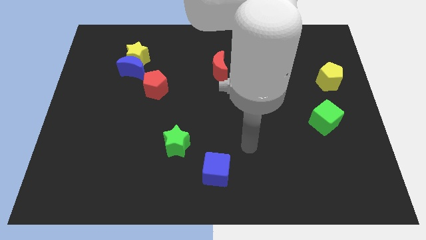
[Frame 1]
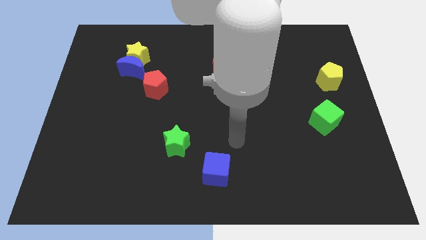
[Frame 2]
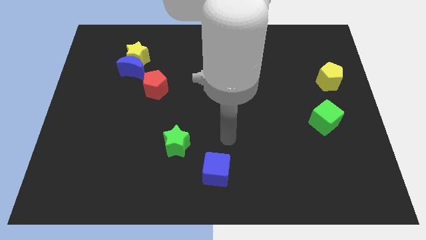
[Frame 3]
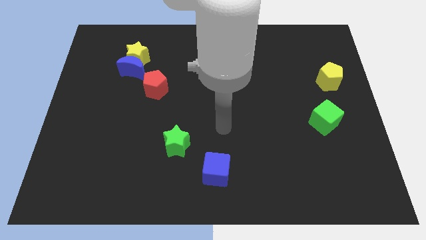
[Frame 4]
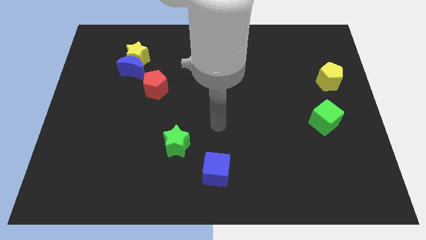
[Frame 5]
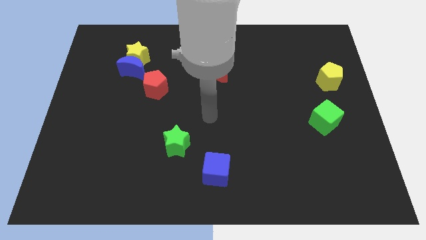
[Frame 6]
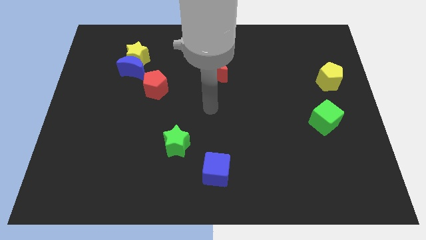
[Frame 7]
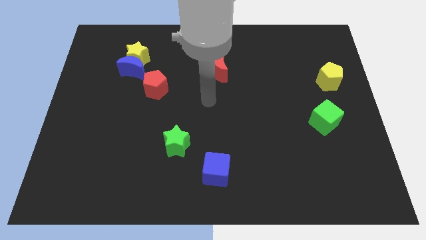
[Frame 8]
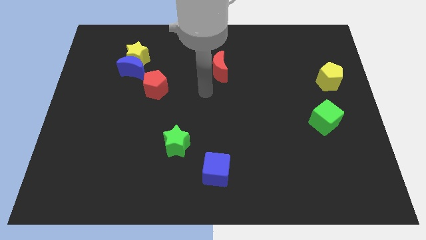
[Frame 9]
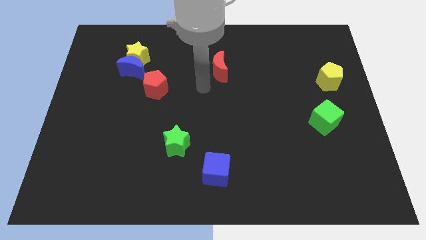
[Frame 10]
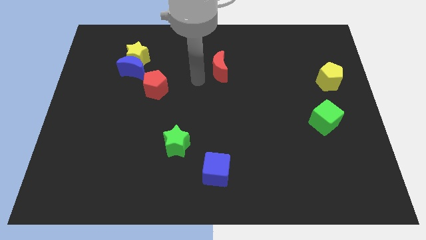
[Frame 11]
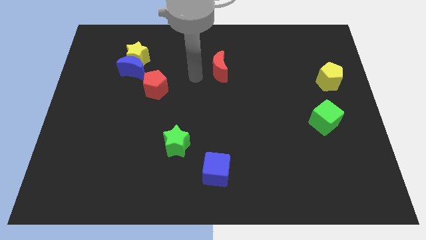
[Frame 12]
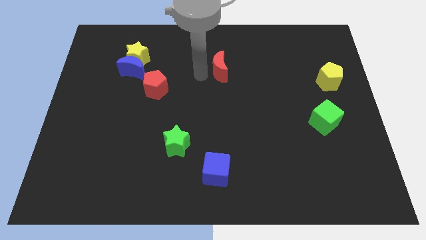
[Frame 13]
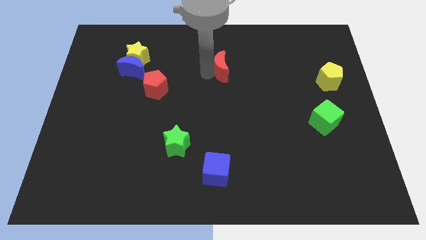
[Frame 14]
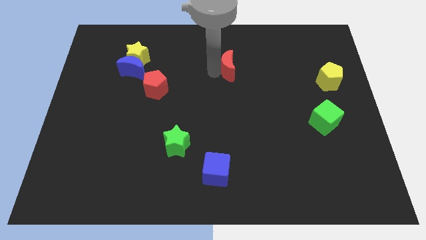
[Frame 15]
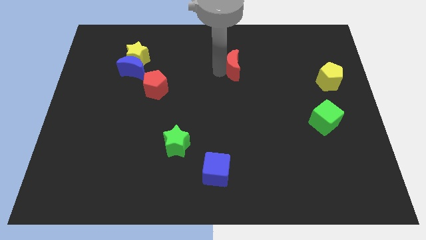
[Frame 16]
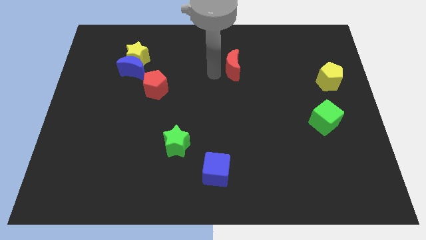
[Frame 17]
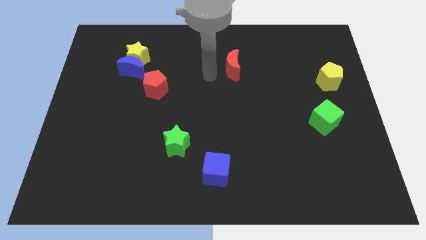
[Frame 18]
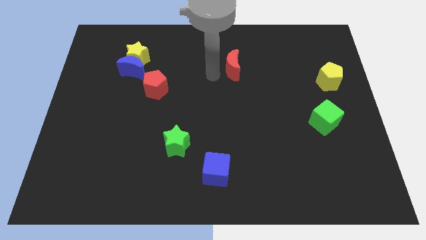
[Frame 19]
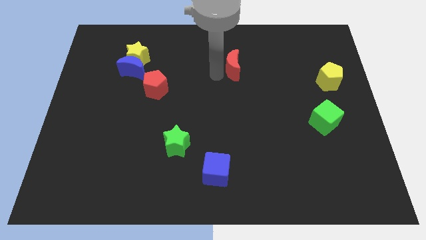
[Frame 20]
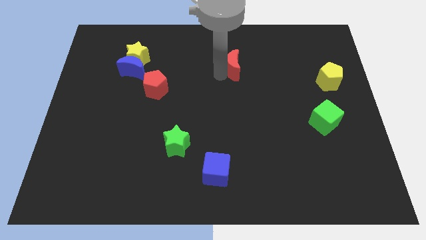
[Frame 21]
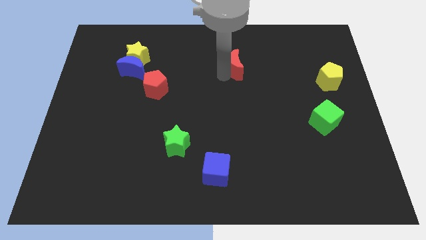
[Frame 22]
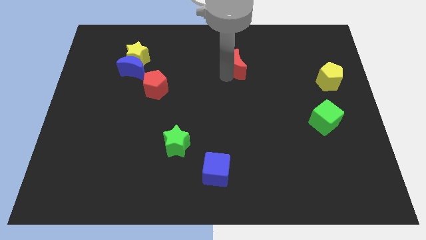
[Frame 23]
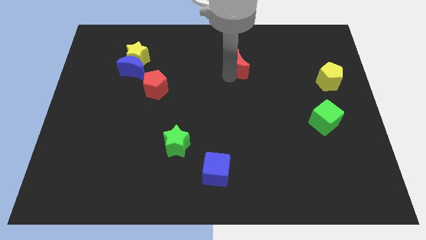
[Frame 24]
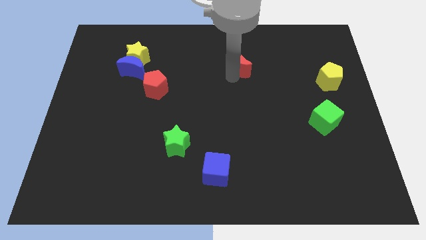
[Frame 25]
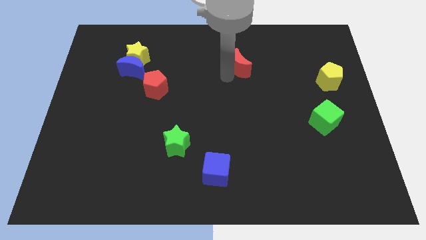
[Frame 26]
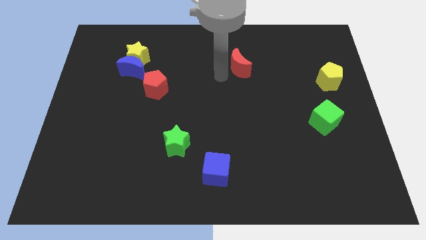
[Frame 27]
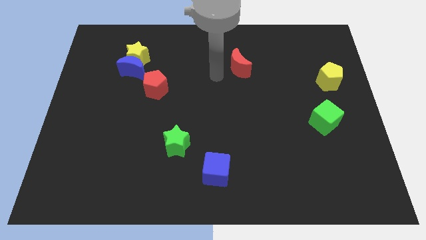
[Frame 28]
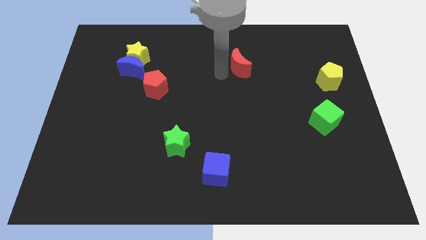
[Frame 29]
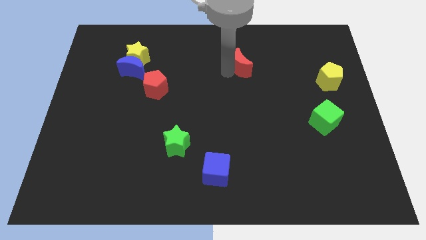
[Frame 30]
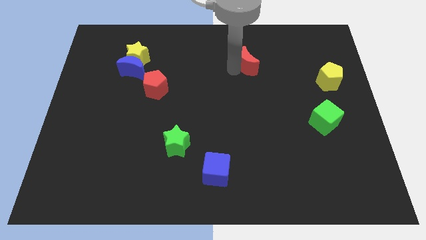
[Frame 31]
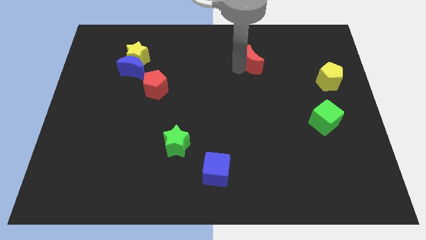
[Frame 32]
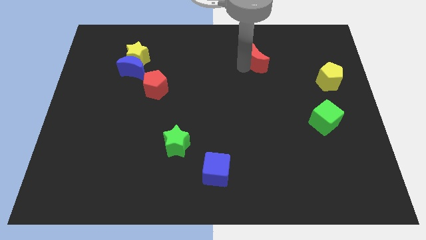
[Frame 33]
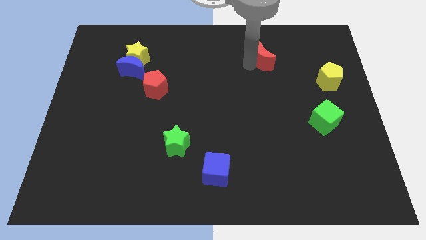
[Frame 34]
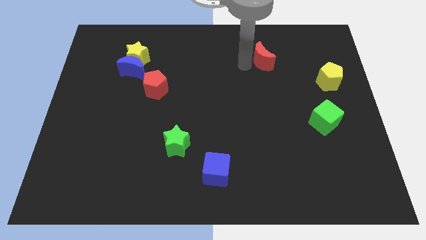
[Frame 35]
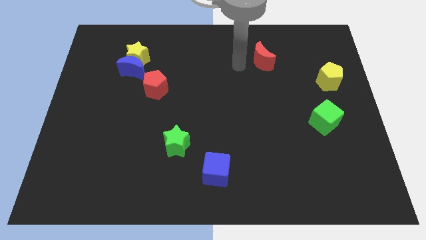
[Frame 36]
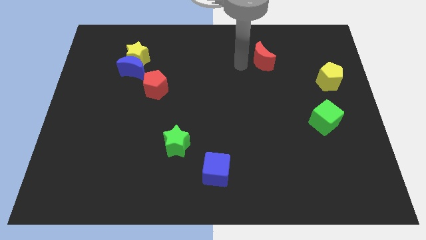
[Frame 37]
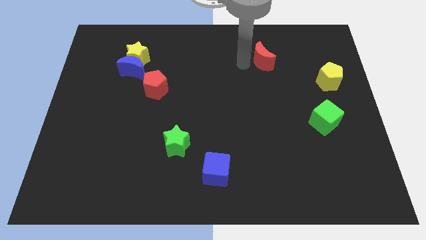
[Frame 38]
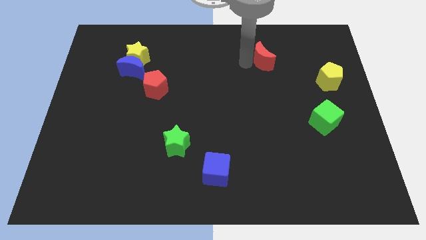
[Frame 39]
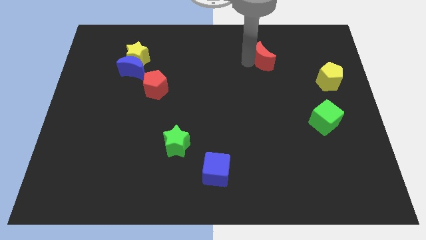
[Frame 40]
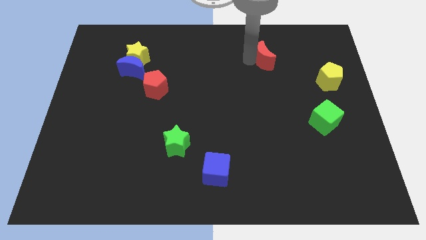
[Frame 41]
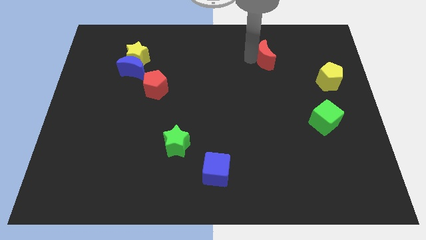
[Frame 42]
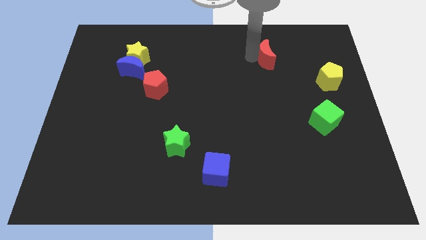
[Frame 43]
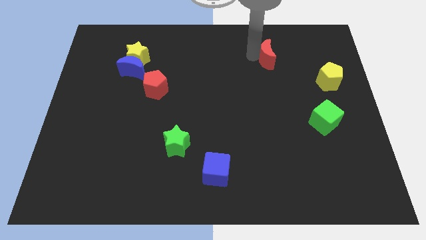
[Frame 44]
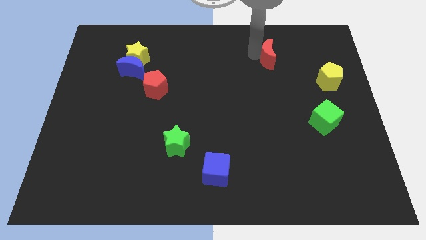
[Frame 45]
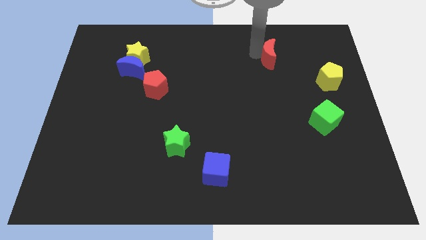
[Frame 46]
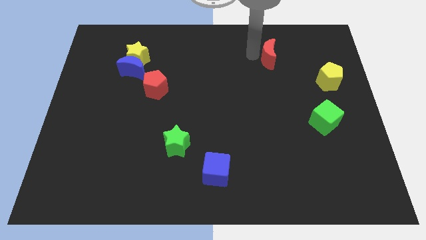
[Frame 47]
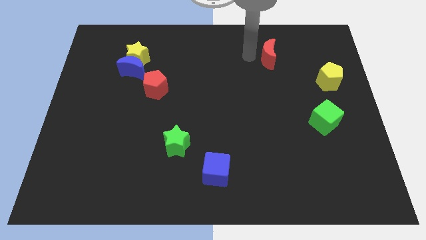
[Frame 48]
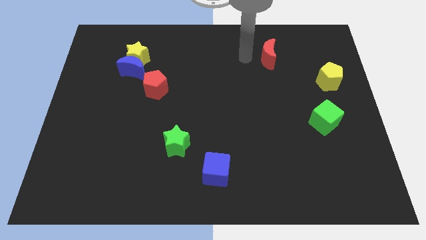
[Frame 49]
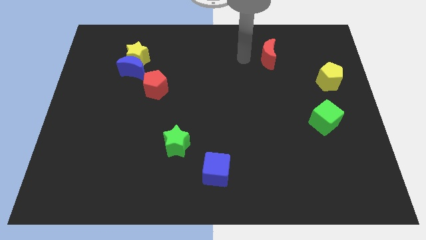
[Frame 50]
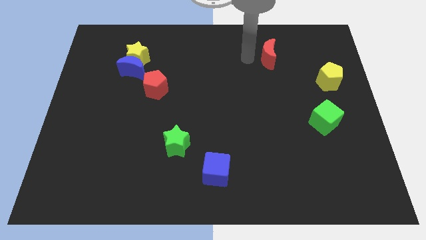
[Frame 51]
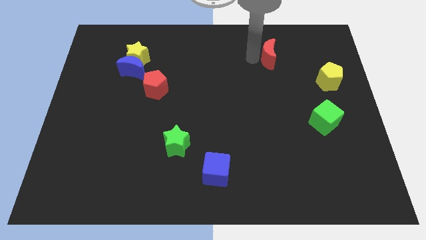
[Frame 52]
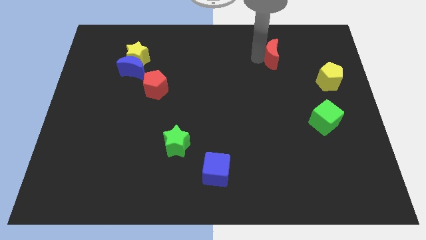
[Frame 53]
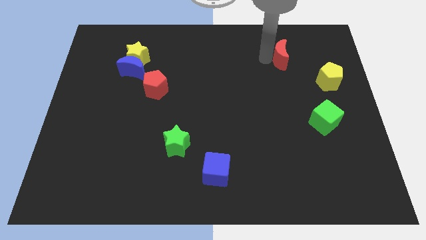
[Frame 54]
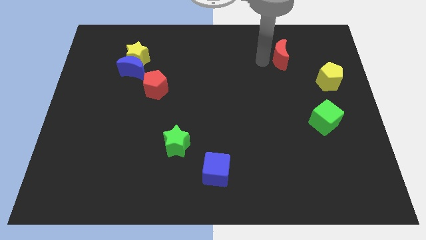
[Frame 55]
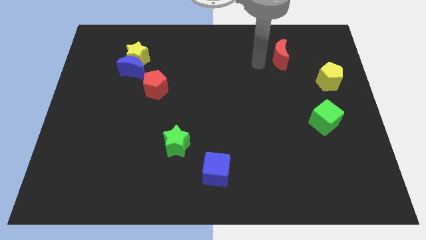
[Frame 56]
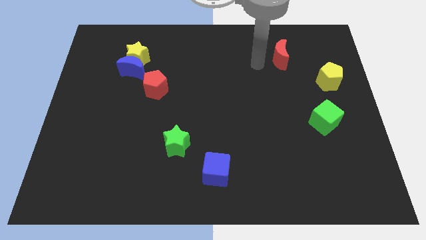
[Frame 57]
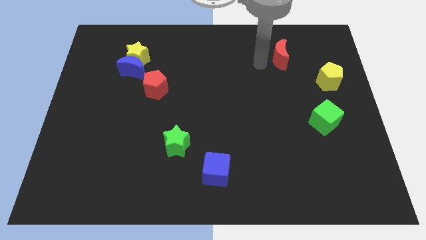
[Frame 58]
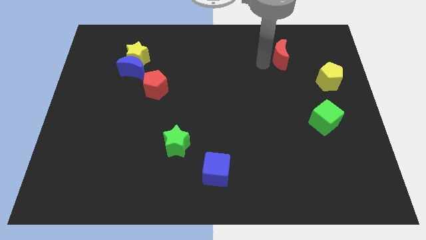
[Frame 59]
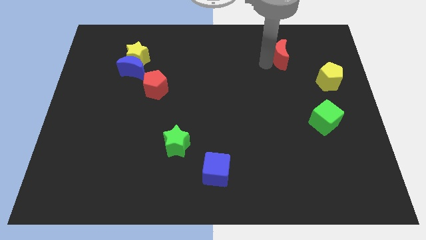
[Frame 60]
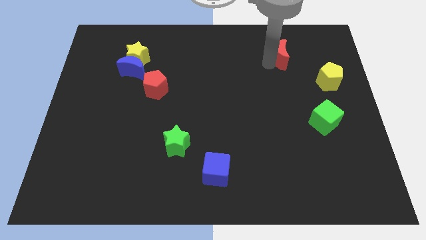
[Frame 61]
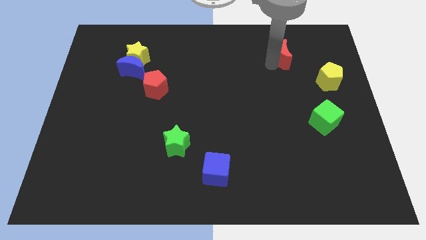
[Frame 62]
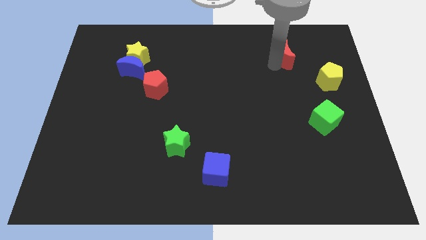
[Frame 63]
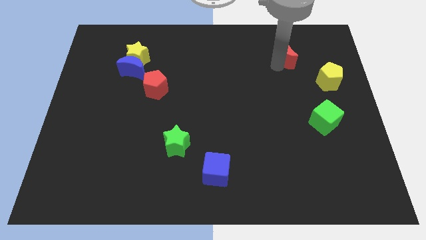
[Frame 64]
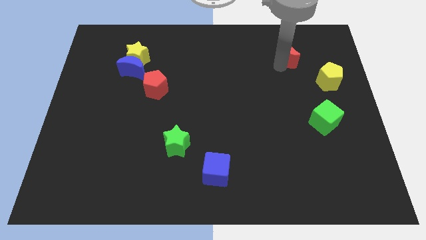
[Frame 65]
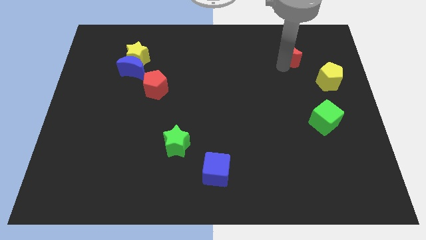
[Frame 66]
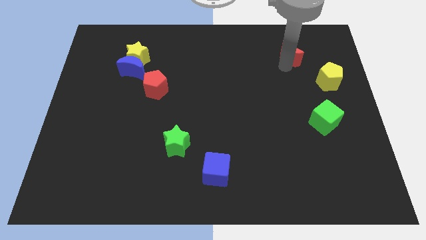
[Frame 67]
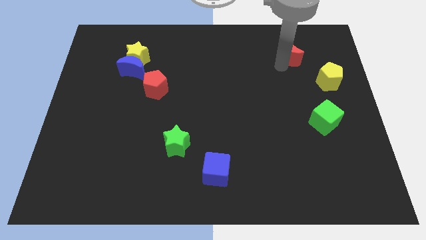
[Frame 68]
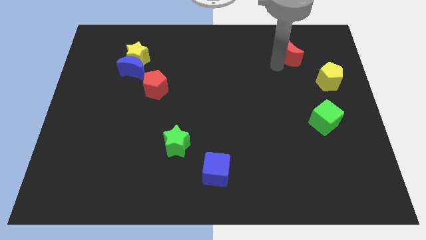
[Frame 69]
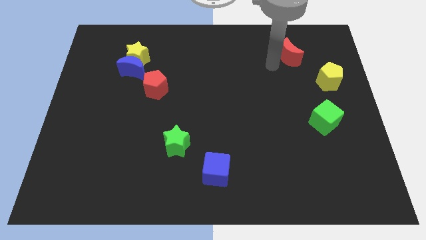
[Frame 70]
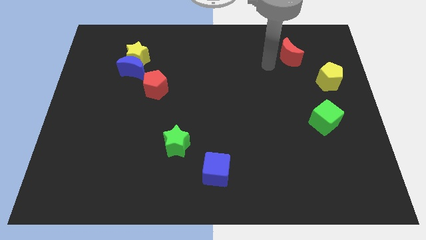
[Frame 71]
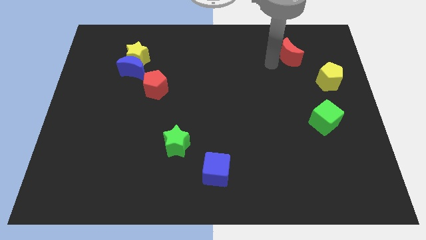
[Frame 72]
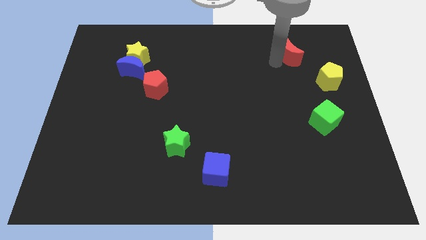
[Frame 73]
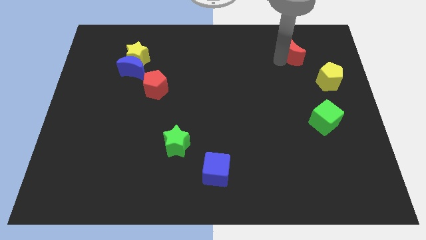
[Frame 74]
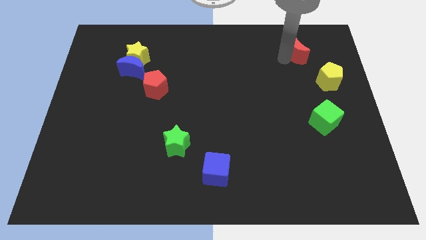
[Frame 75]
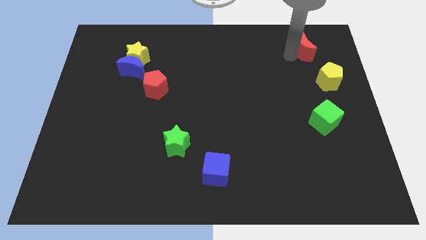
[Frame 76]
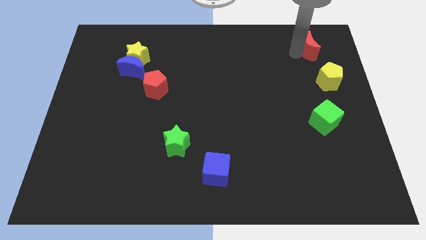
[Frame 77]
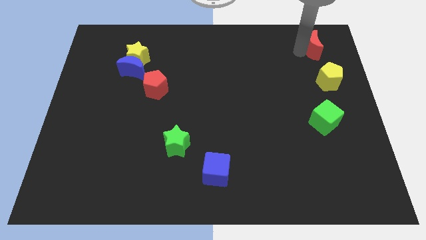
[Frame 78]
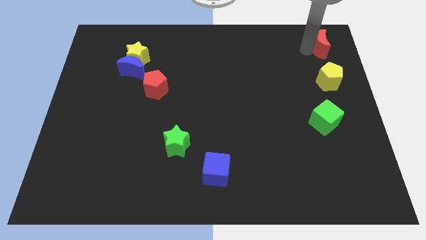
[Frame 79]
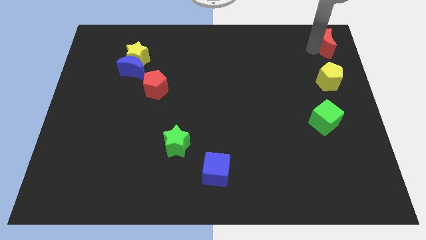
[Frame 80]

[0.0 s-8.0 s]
move the red moon to the top right
